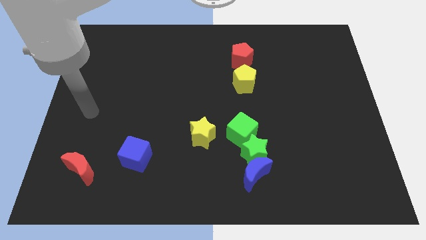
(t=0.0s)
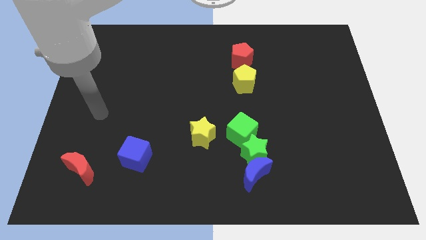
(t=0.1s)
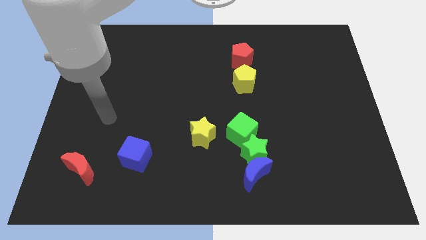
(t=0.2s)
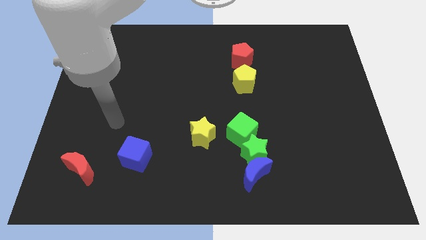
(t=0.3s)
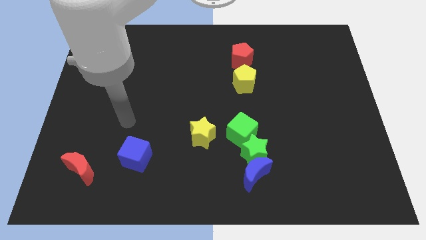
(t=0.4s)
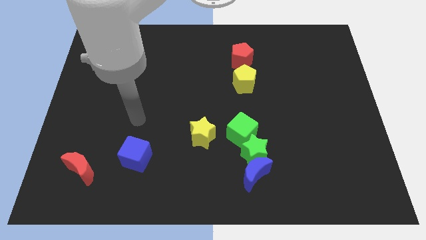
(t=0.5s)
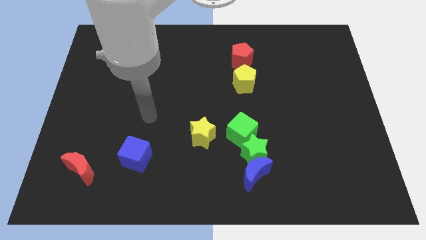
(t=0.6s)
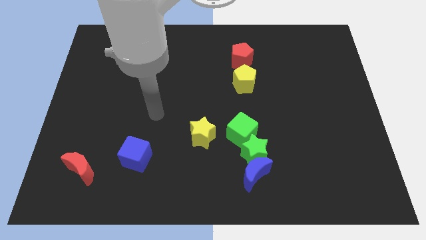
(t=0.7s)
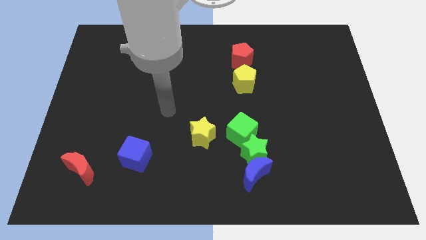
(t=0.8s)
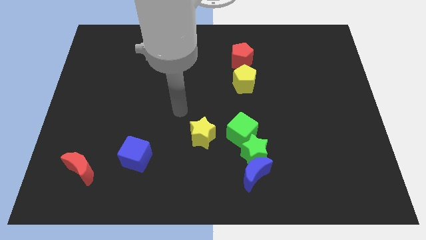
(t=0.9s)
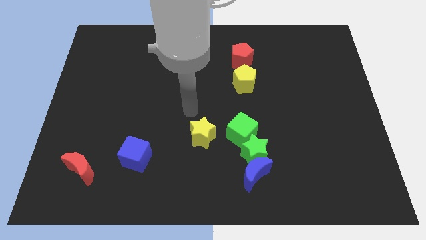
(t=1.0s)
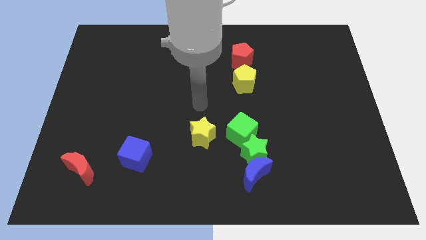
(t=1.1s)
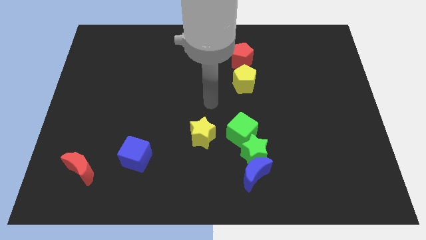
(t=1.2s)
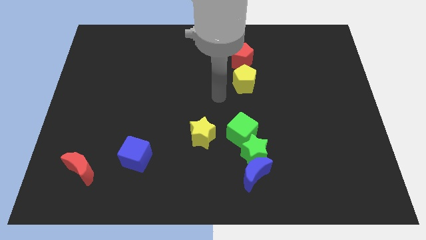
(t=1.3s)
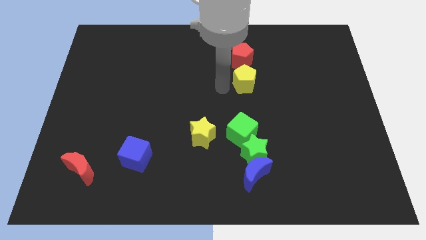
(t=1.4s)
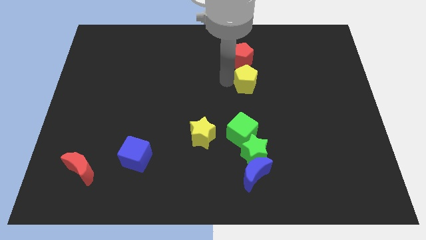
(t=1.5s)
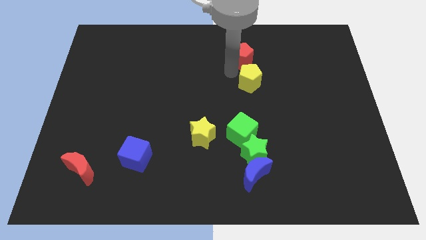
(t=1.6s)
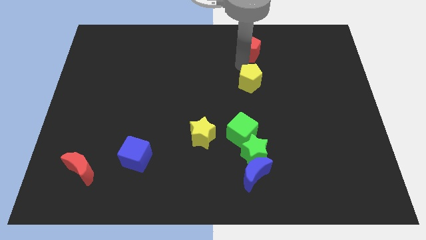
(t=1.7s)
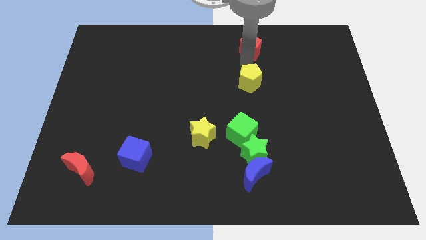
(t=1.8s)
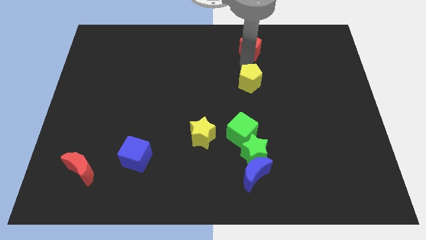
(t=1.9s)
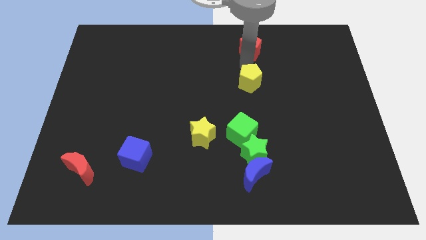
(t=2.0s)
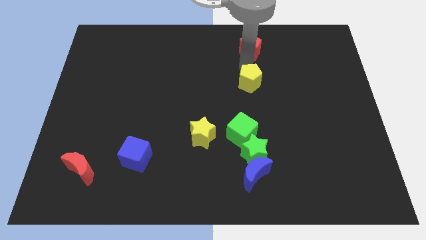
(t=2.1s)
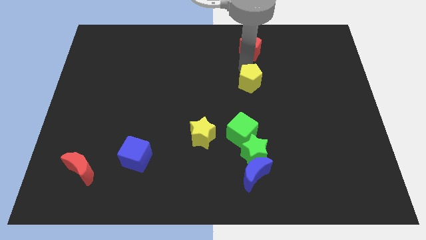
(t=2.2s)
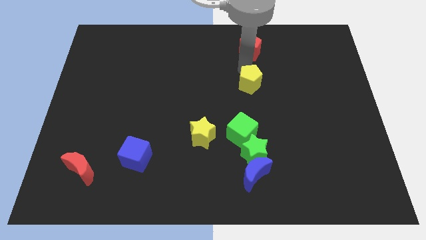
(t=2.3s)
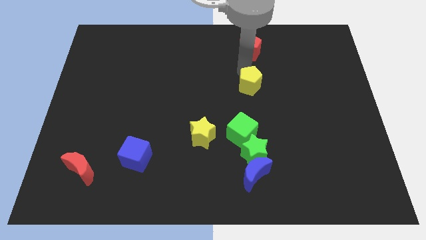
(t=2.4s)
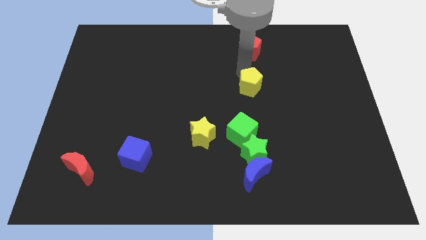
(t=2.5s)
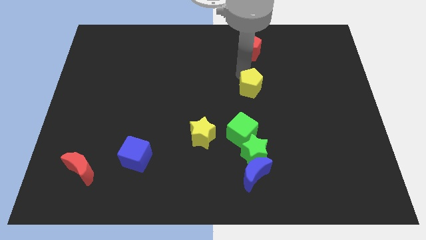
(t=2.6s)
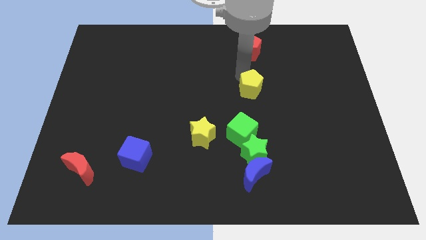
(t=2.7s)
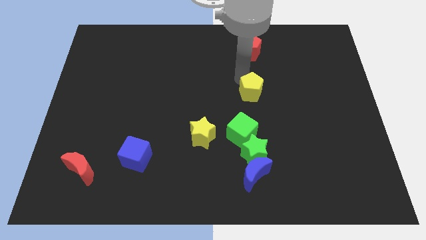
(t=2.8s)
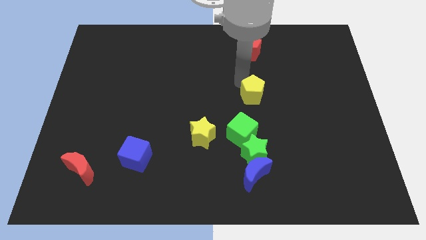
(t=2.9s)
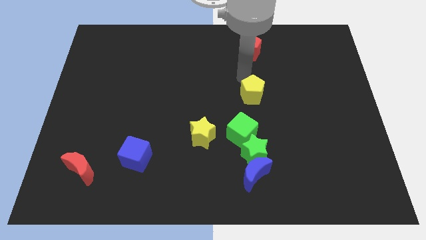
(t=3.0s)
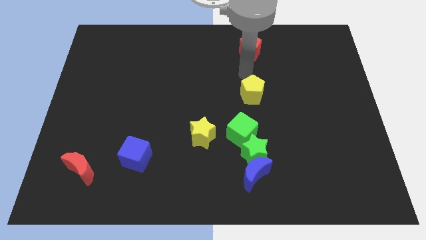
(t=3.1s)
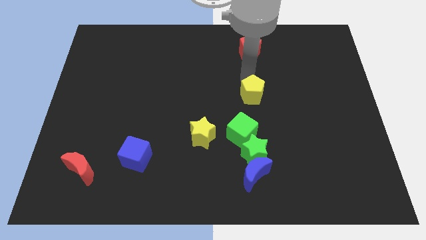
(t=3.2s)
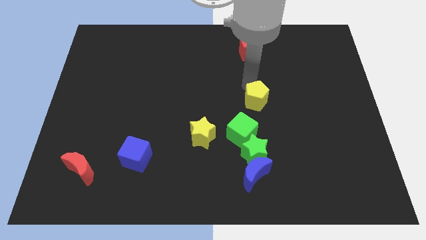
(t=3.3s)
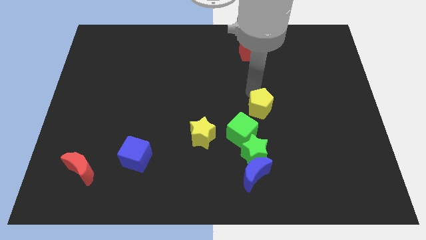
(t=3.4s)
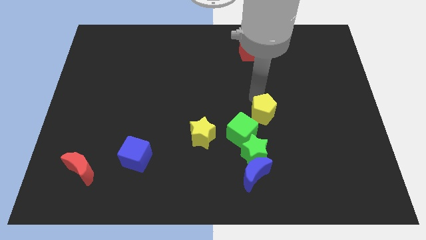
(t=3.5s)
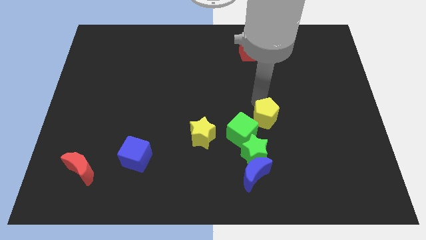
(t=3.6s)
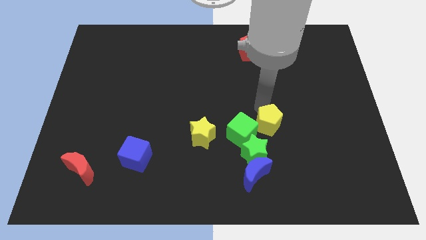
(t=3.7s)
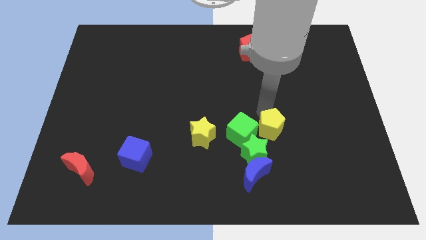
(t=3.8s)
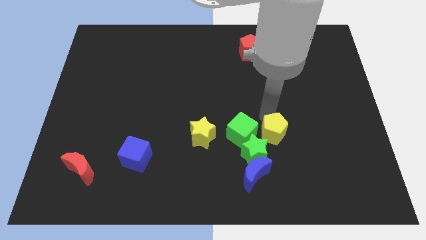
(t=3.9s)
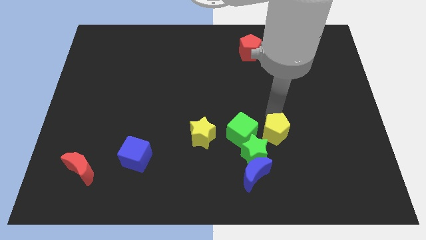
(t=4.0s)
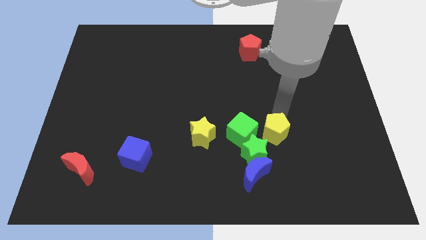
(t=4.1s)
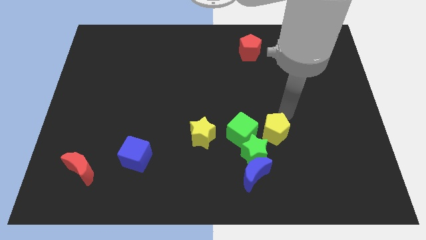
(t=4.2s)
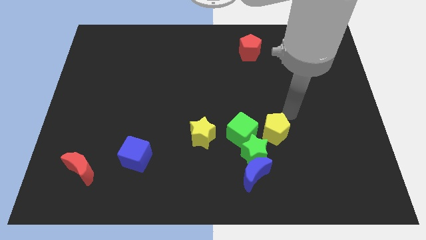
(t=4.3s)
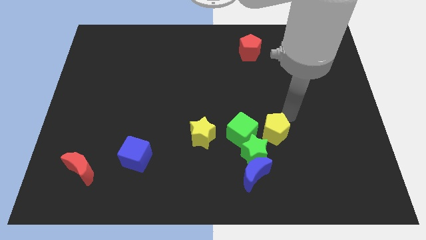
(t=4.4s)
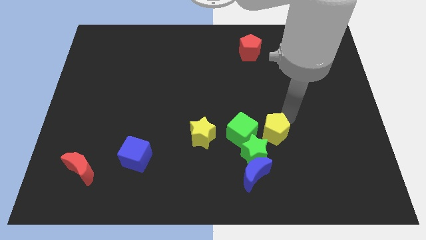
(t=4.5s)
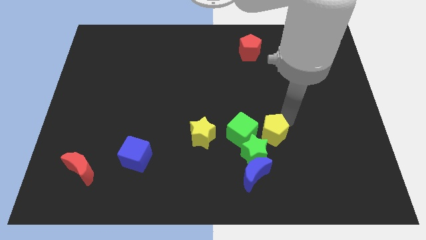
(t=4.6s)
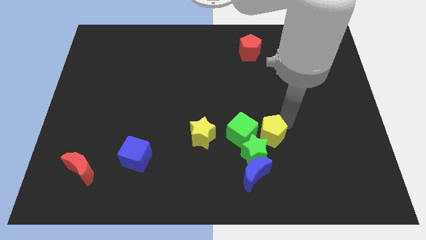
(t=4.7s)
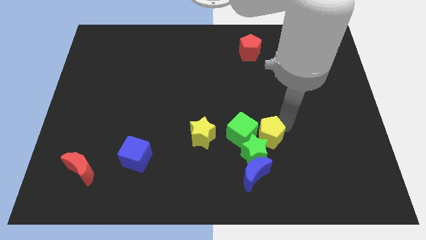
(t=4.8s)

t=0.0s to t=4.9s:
push the yellow pentagon to the green star

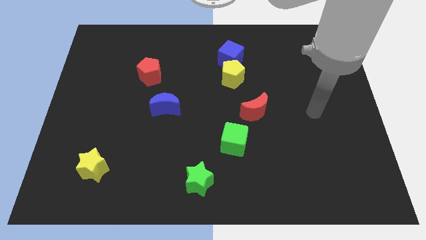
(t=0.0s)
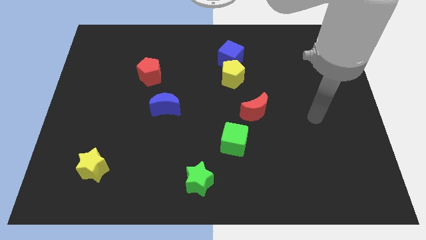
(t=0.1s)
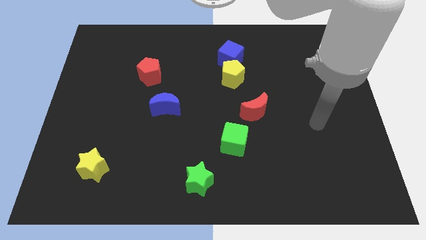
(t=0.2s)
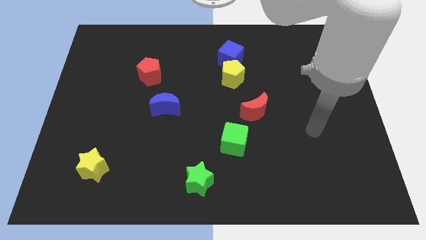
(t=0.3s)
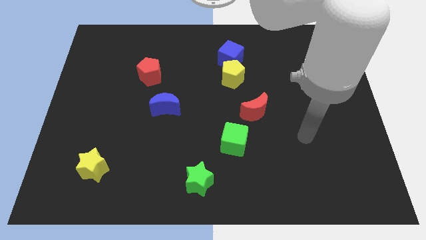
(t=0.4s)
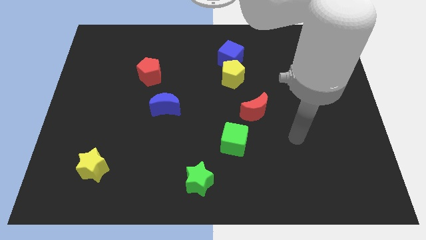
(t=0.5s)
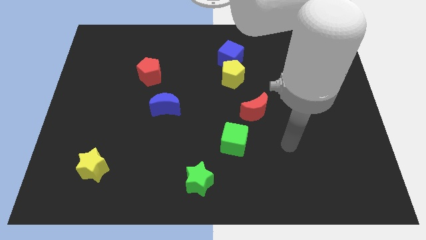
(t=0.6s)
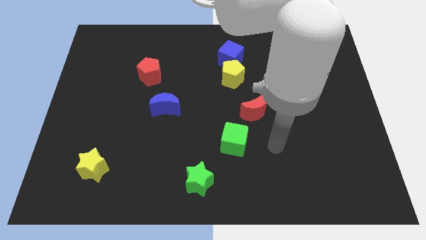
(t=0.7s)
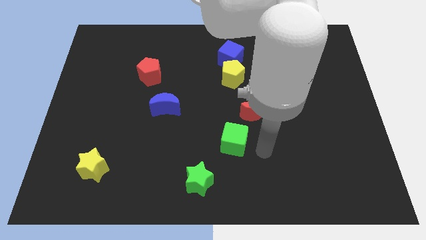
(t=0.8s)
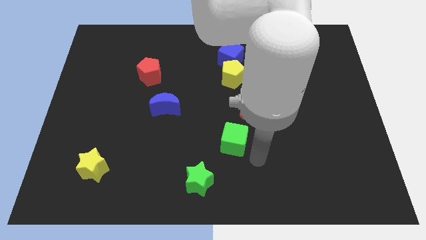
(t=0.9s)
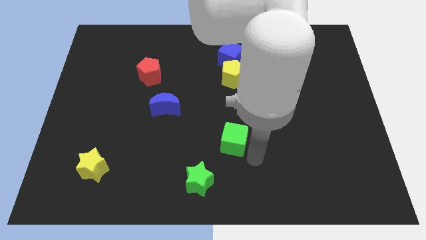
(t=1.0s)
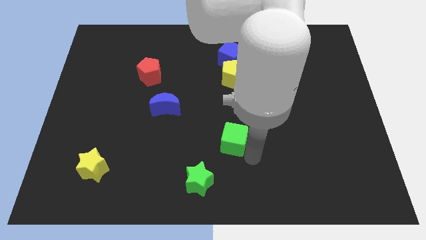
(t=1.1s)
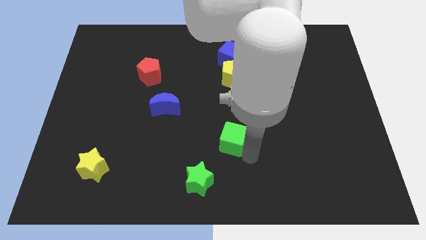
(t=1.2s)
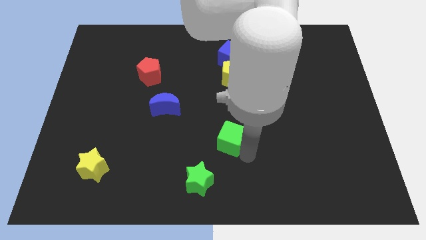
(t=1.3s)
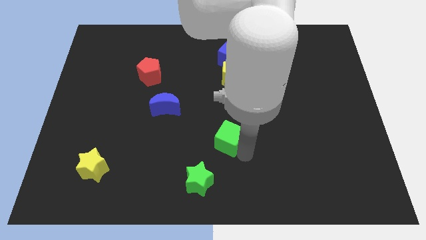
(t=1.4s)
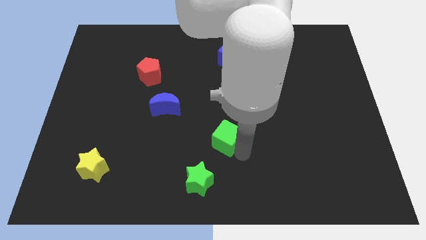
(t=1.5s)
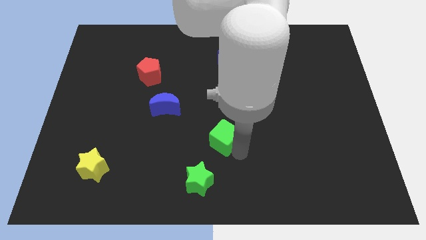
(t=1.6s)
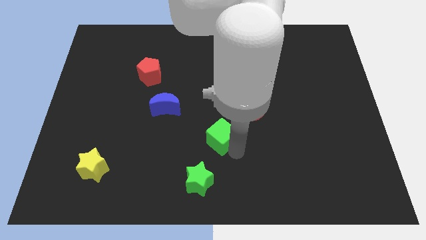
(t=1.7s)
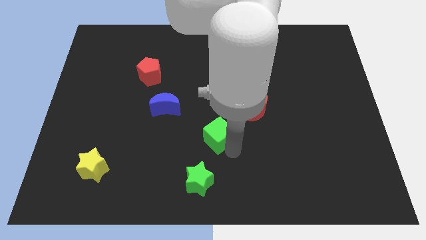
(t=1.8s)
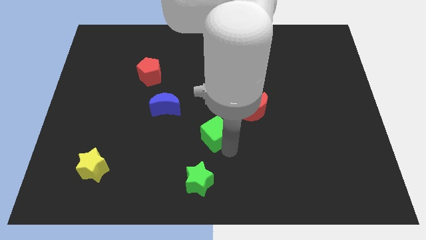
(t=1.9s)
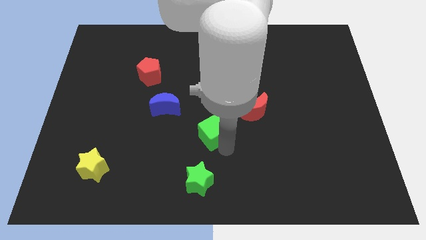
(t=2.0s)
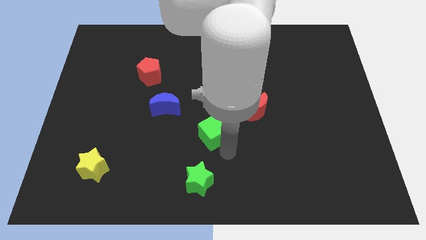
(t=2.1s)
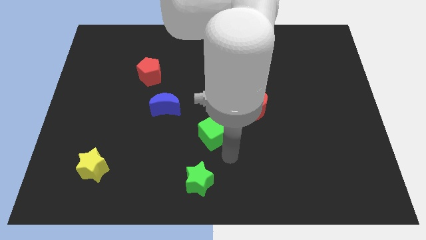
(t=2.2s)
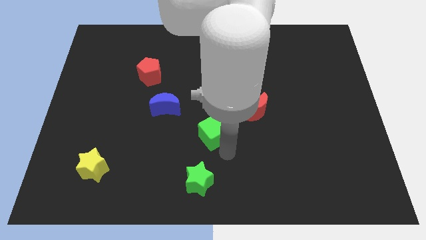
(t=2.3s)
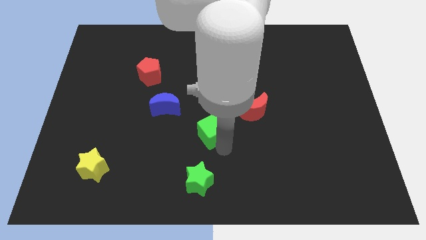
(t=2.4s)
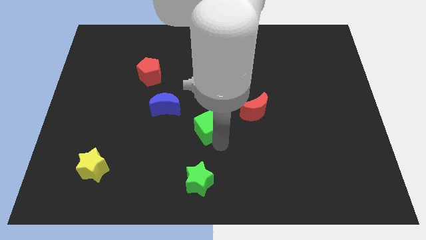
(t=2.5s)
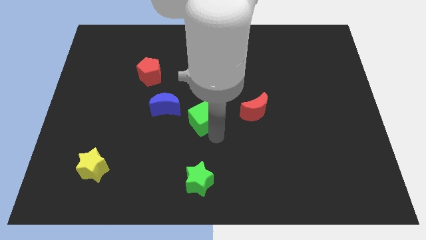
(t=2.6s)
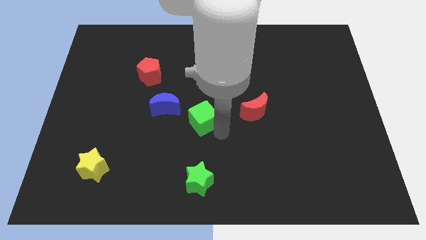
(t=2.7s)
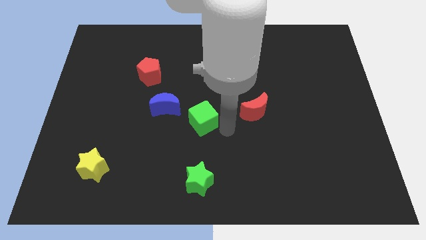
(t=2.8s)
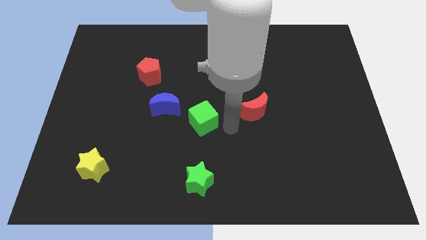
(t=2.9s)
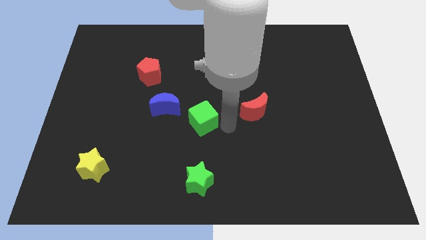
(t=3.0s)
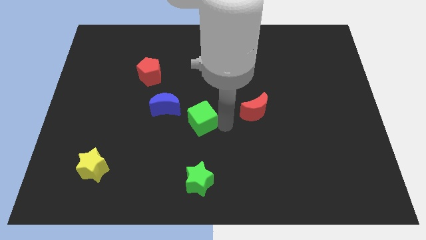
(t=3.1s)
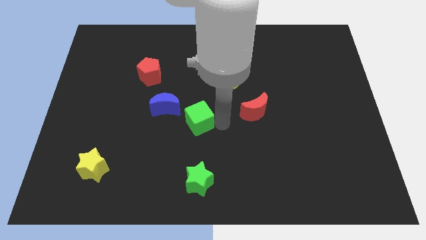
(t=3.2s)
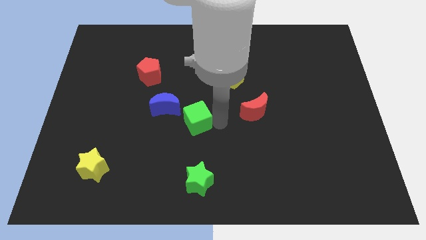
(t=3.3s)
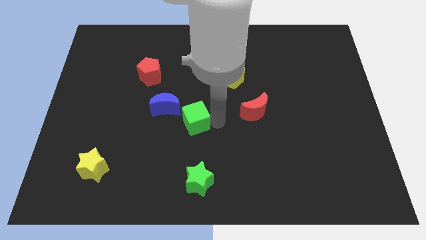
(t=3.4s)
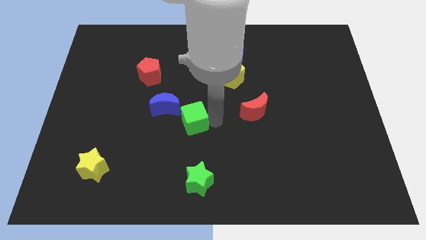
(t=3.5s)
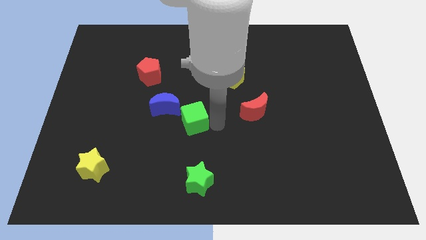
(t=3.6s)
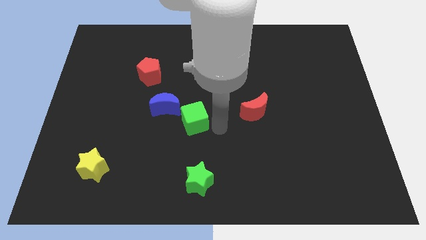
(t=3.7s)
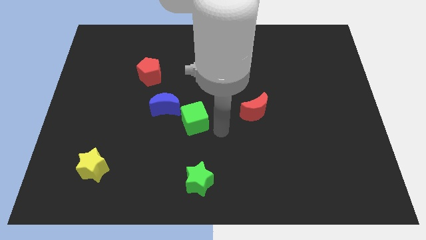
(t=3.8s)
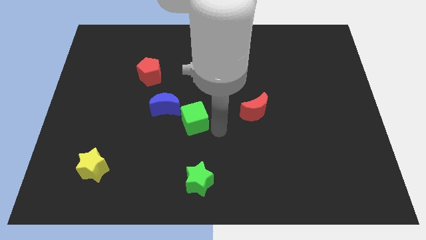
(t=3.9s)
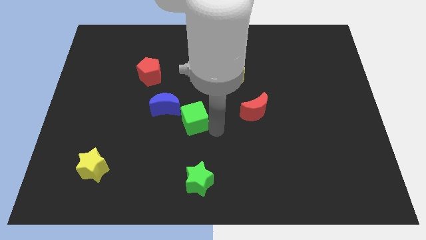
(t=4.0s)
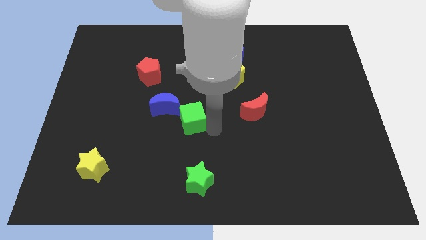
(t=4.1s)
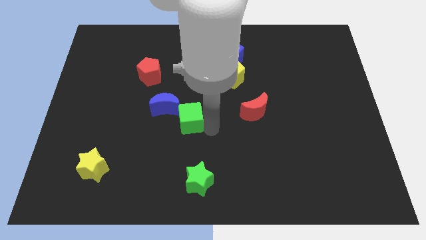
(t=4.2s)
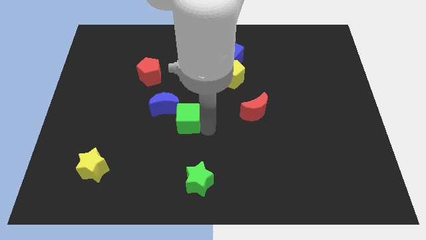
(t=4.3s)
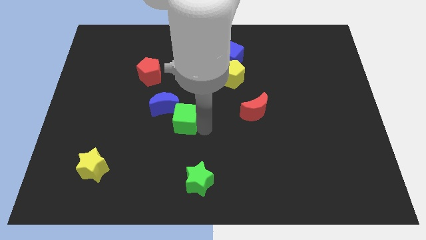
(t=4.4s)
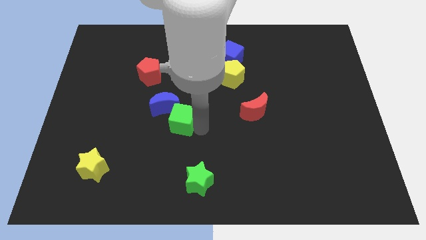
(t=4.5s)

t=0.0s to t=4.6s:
put the green cube next to the blue moon
